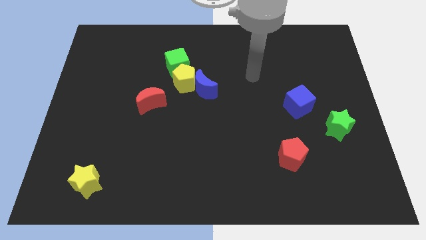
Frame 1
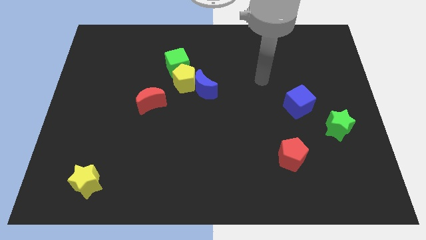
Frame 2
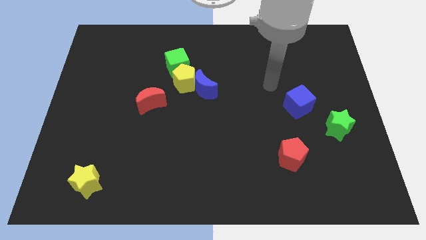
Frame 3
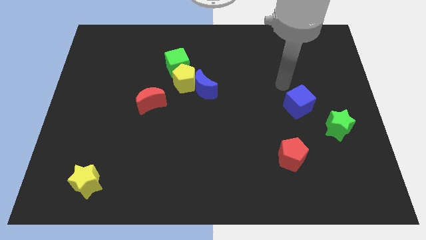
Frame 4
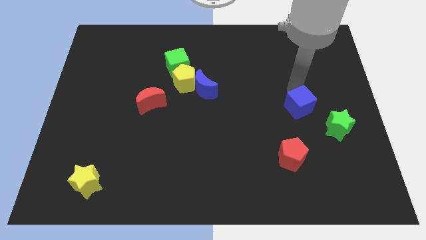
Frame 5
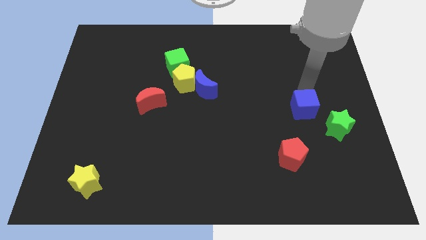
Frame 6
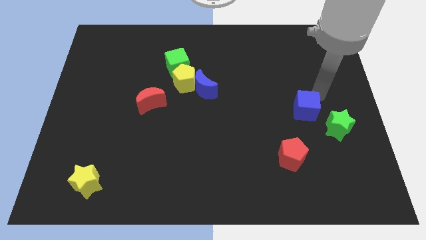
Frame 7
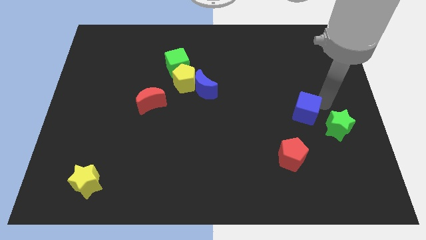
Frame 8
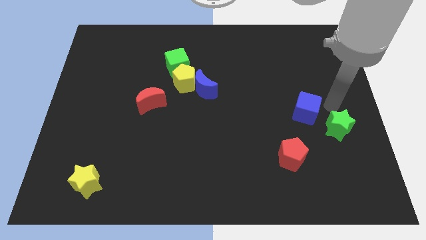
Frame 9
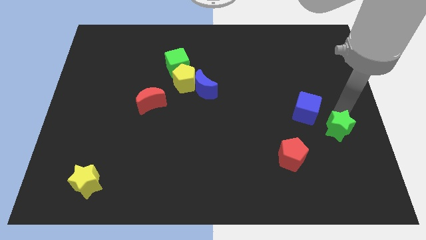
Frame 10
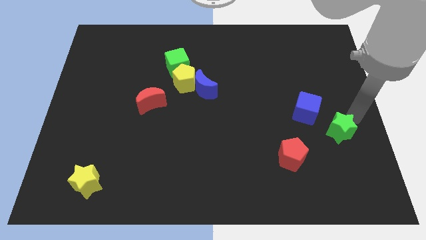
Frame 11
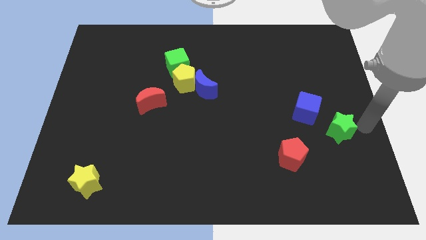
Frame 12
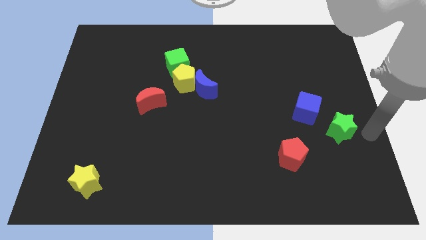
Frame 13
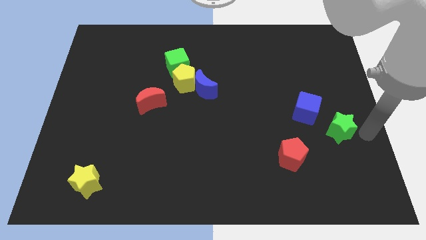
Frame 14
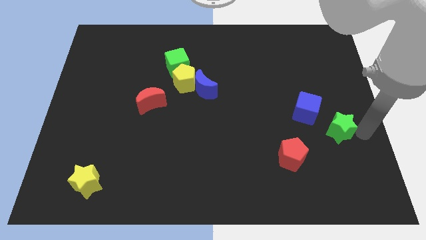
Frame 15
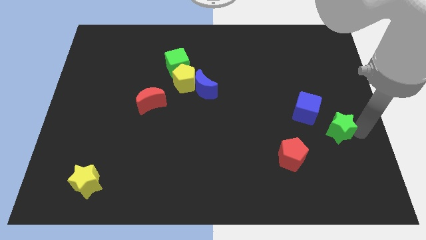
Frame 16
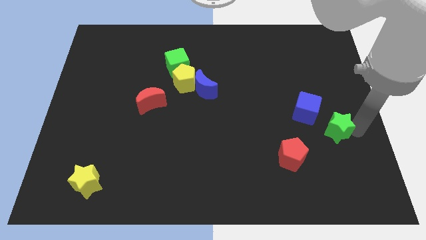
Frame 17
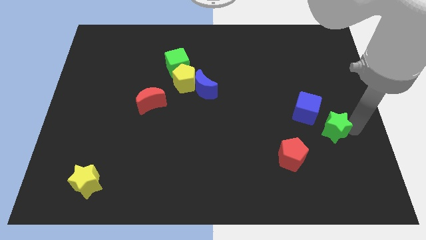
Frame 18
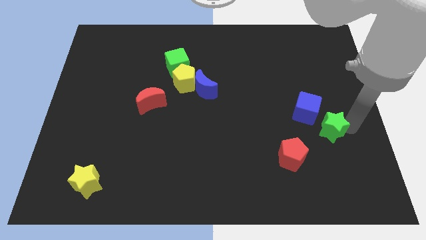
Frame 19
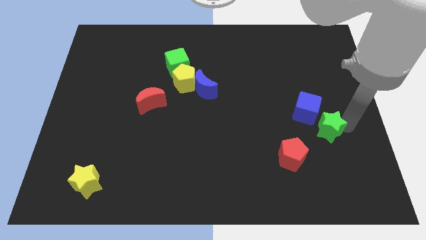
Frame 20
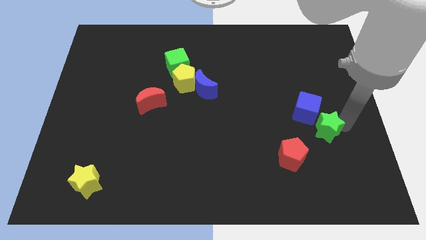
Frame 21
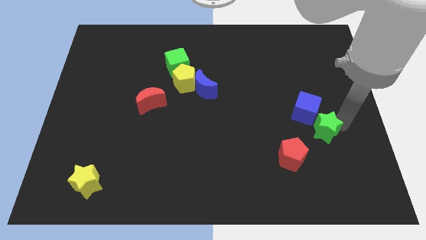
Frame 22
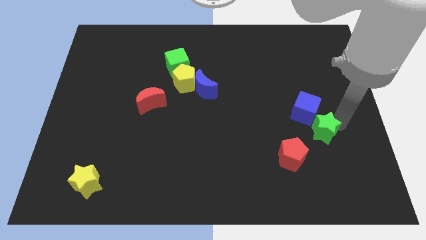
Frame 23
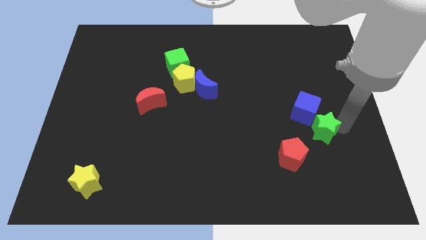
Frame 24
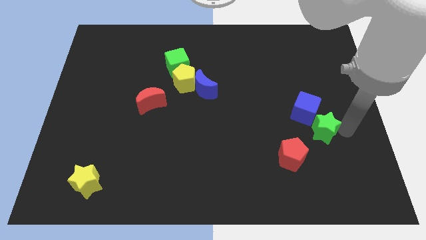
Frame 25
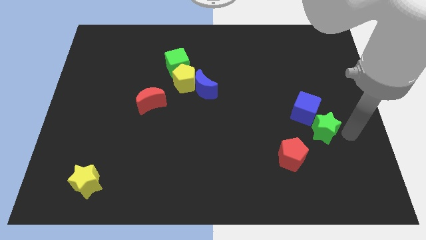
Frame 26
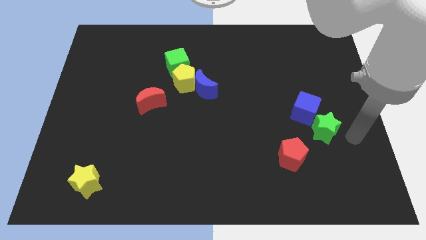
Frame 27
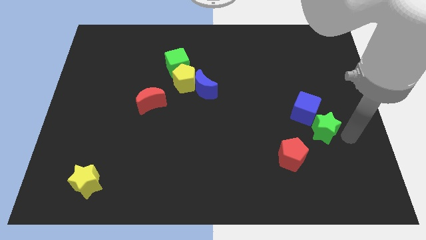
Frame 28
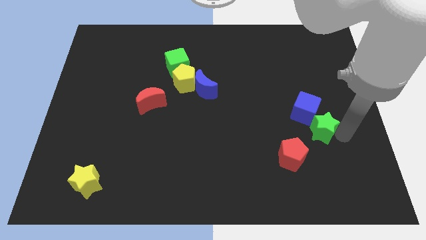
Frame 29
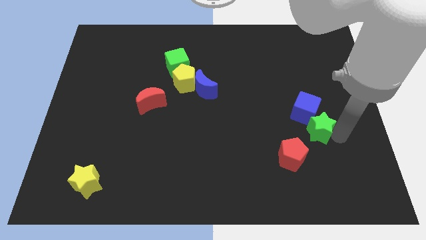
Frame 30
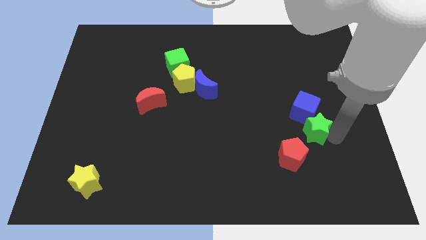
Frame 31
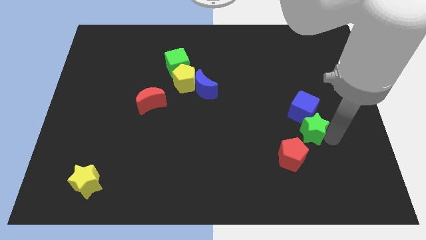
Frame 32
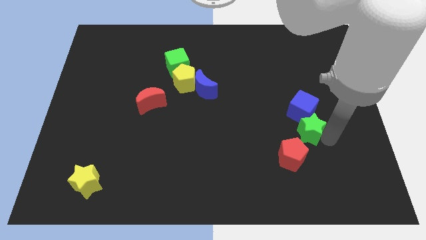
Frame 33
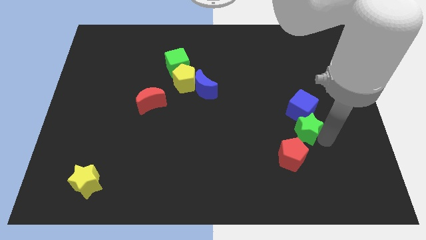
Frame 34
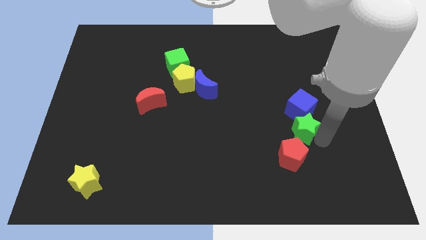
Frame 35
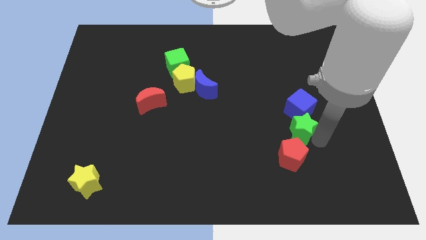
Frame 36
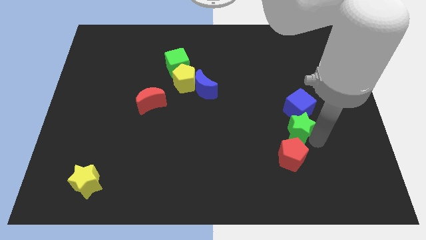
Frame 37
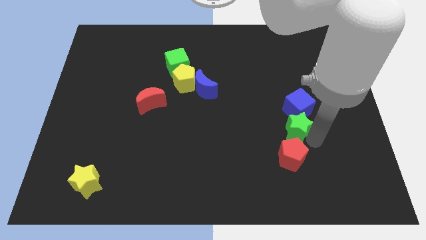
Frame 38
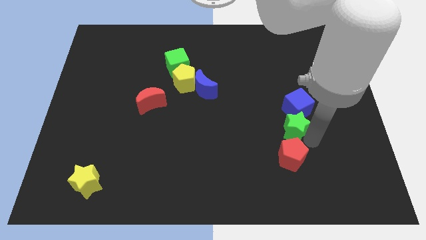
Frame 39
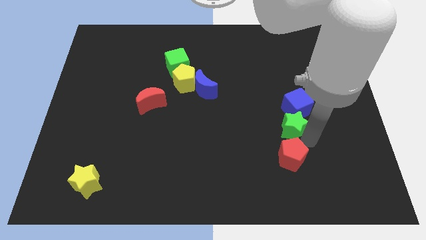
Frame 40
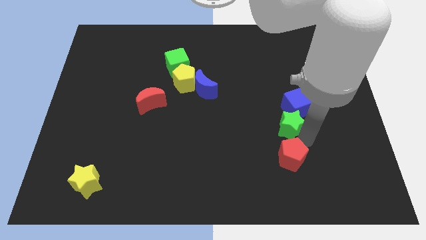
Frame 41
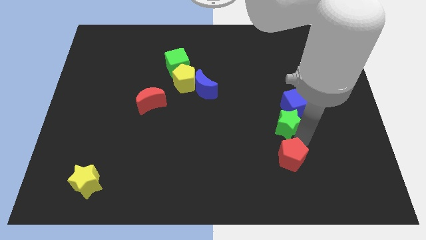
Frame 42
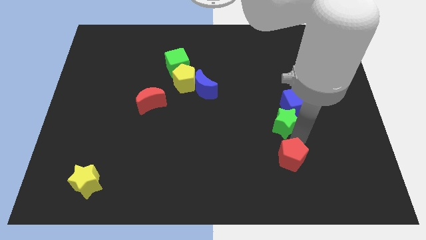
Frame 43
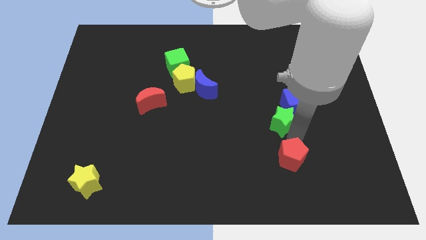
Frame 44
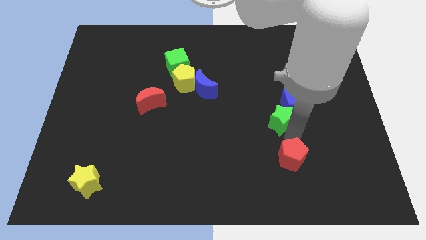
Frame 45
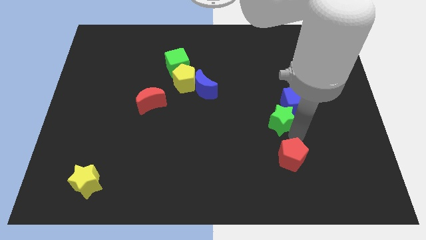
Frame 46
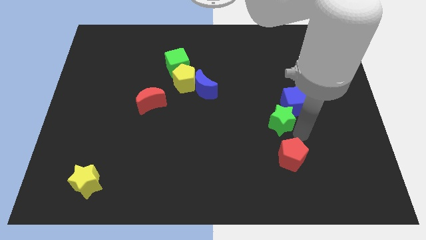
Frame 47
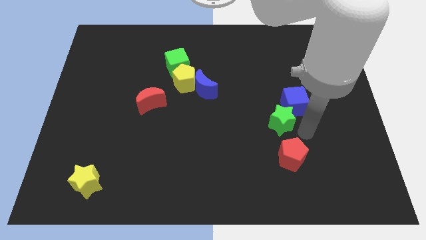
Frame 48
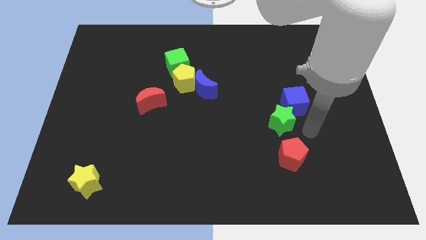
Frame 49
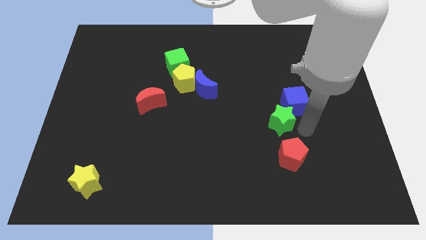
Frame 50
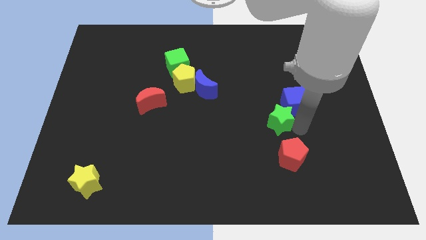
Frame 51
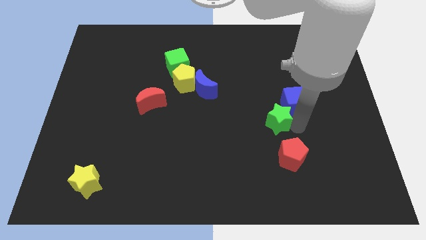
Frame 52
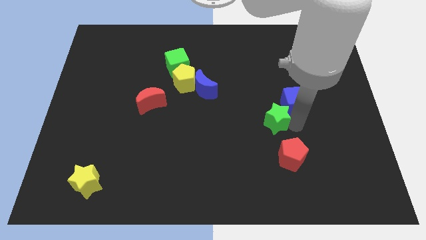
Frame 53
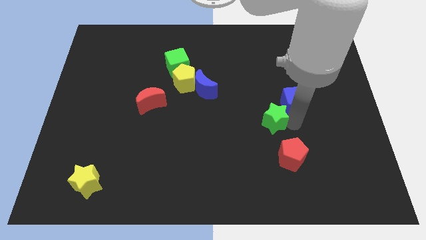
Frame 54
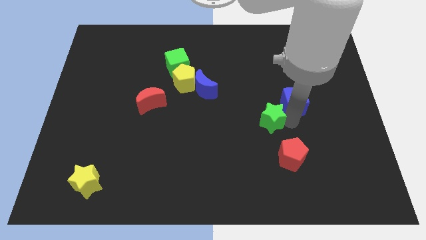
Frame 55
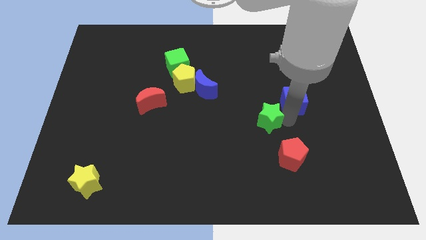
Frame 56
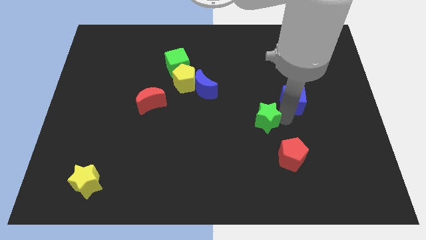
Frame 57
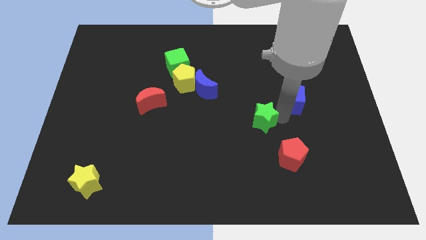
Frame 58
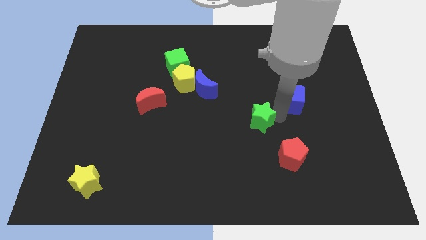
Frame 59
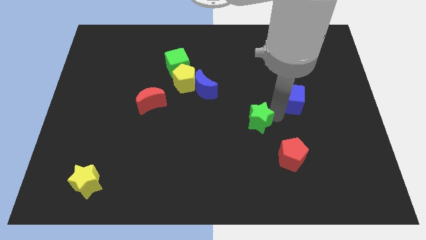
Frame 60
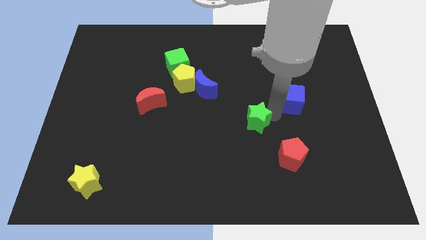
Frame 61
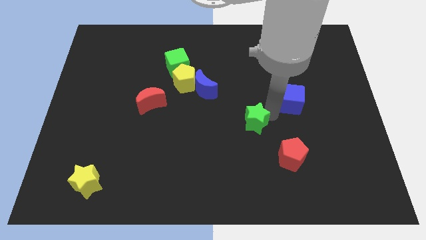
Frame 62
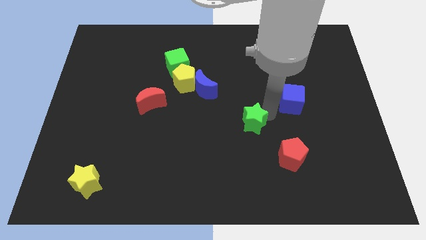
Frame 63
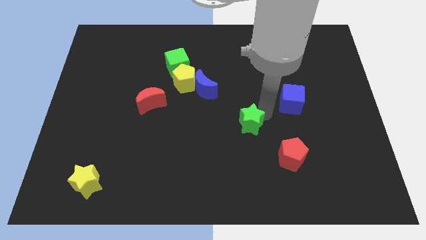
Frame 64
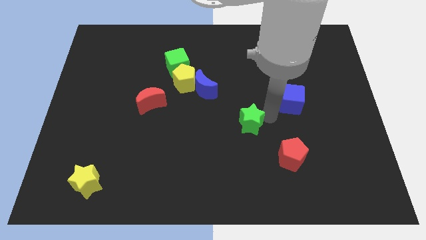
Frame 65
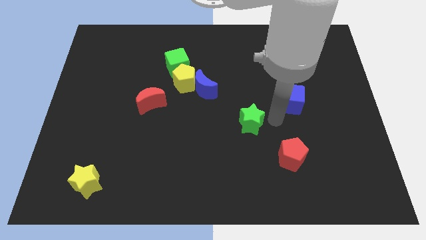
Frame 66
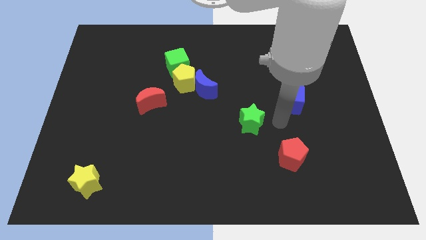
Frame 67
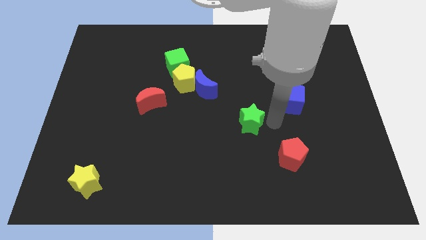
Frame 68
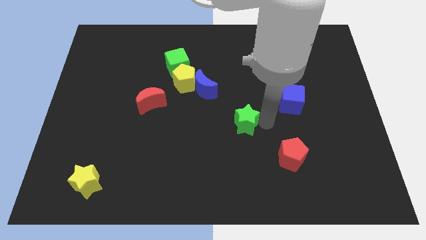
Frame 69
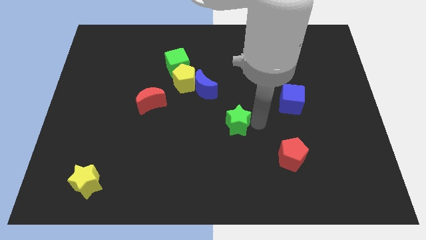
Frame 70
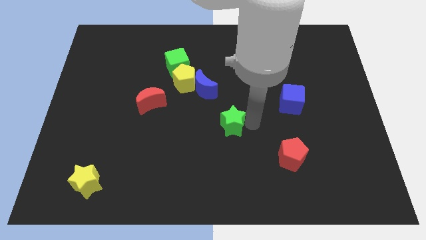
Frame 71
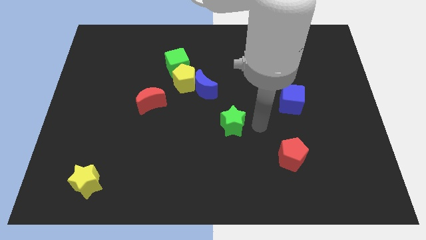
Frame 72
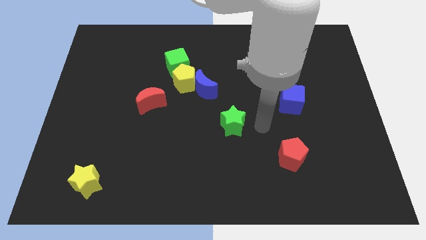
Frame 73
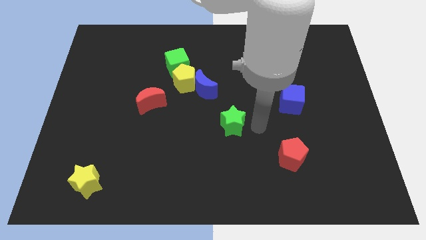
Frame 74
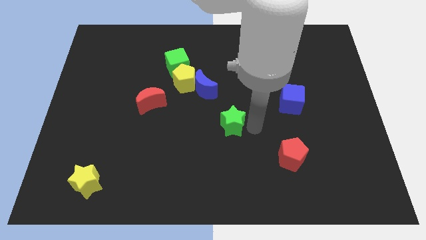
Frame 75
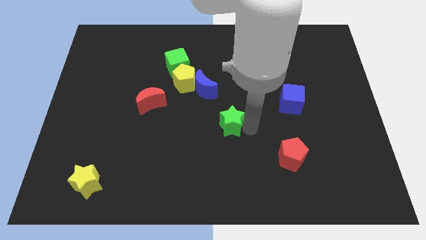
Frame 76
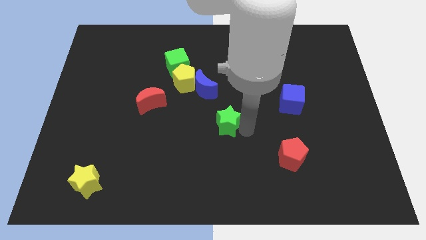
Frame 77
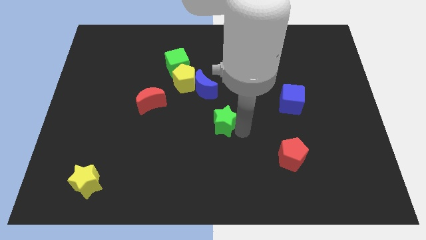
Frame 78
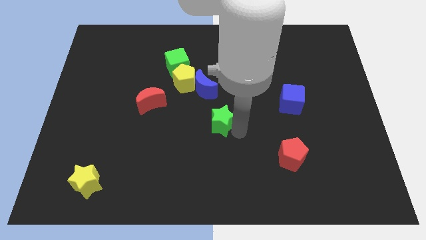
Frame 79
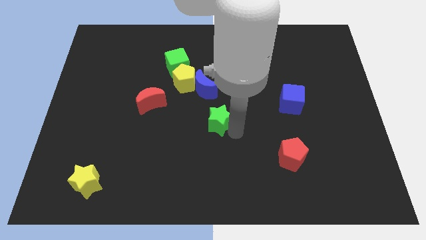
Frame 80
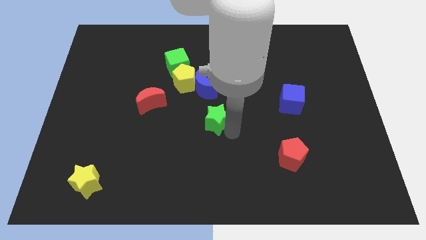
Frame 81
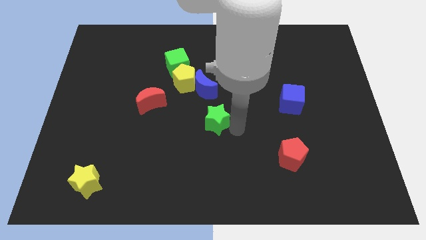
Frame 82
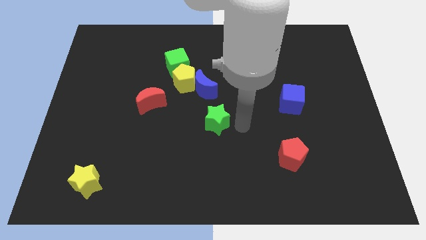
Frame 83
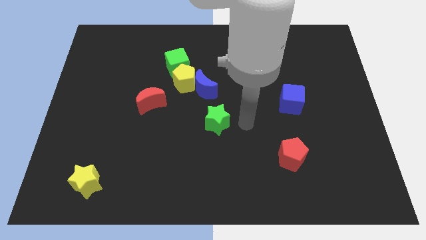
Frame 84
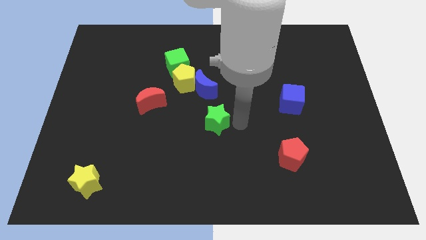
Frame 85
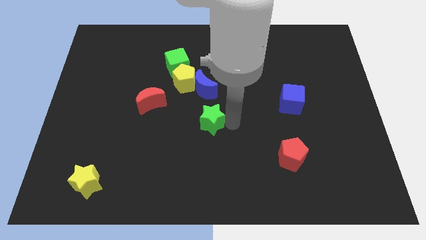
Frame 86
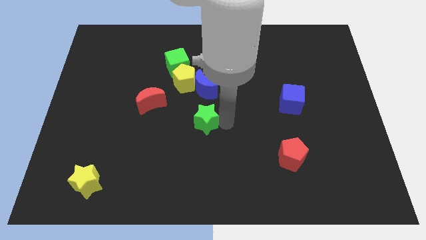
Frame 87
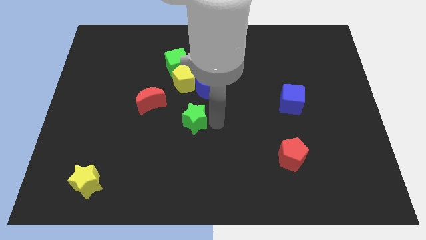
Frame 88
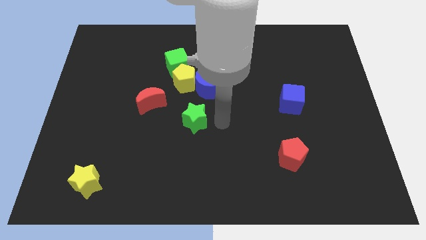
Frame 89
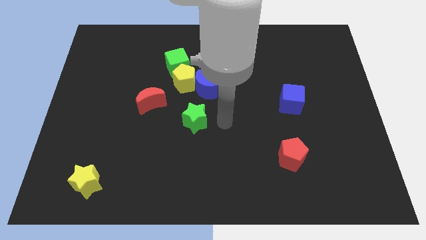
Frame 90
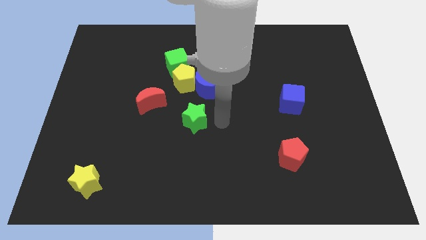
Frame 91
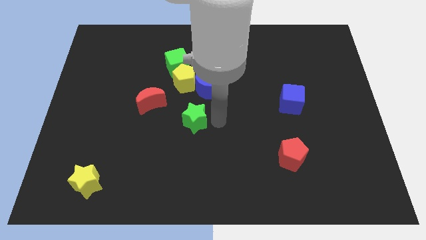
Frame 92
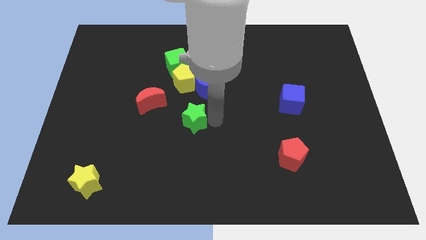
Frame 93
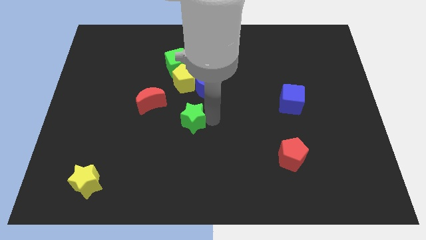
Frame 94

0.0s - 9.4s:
push the green star to the bottom right side of the red moon
